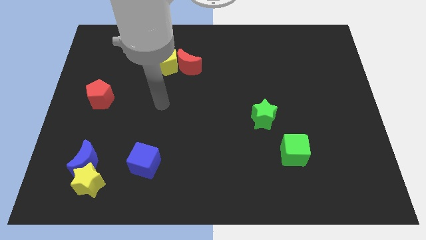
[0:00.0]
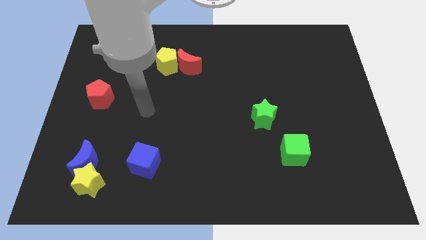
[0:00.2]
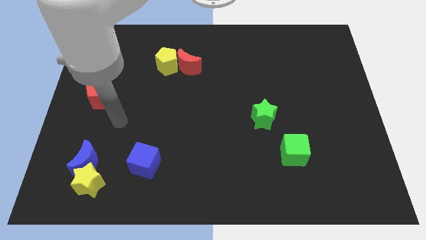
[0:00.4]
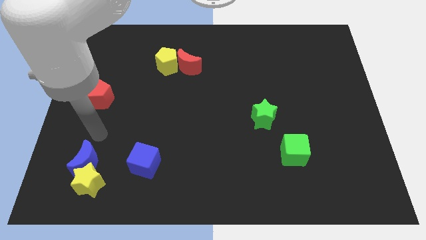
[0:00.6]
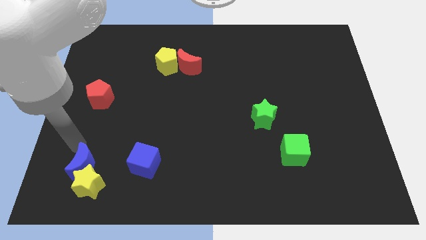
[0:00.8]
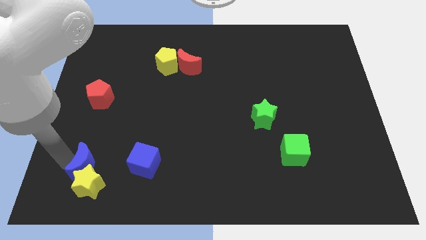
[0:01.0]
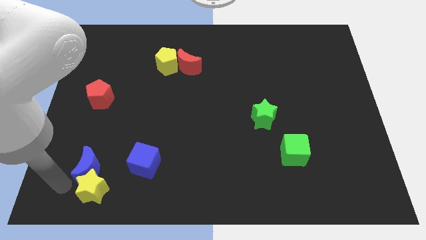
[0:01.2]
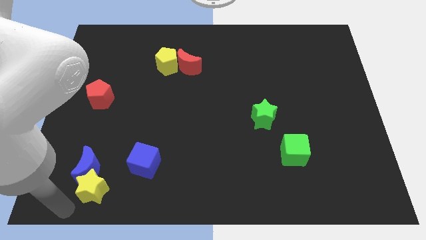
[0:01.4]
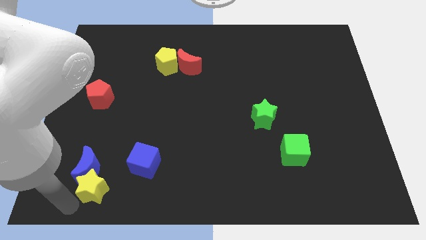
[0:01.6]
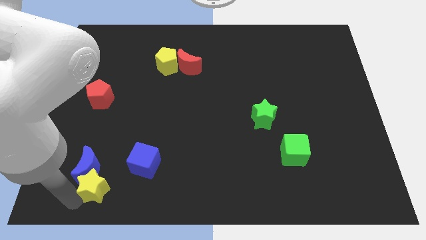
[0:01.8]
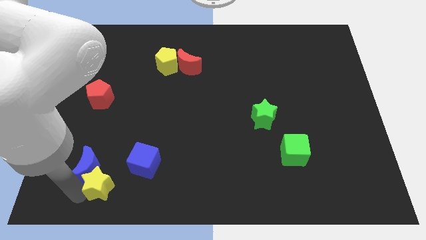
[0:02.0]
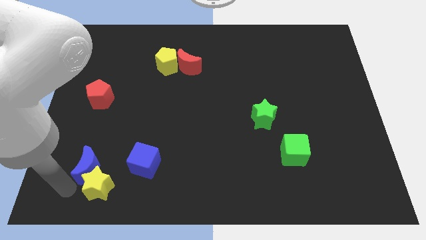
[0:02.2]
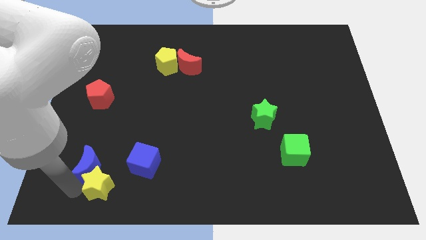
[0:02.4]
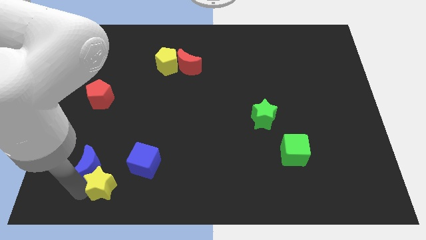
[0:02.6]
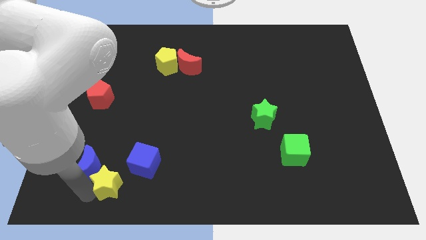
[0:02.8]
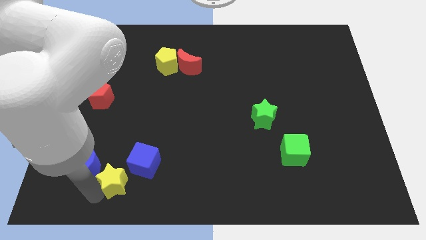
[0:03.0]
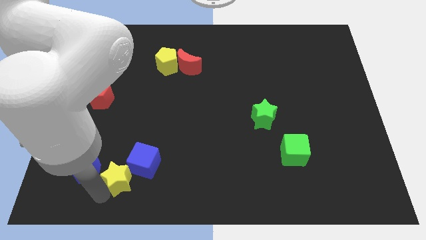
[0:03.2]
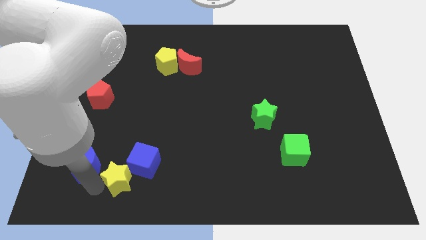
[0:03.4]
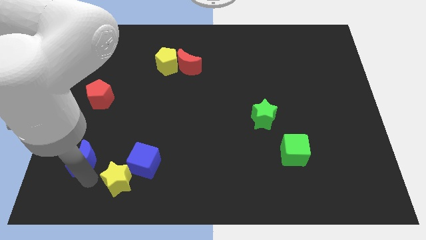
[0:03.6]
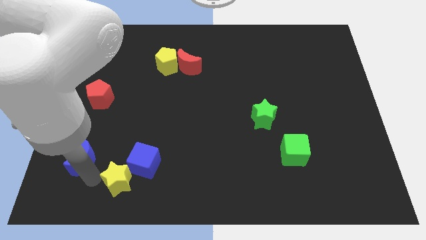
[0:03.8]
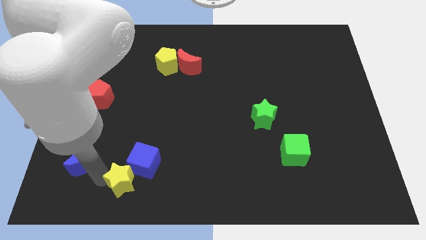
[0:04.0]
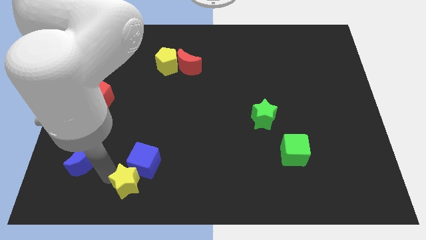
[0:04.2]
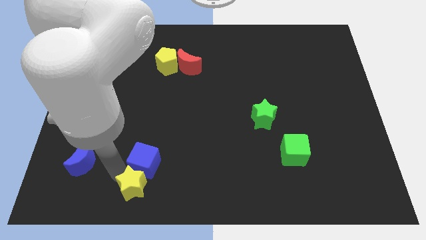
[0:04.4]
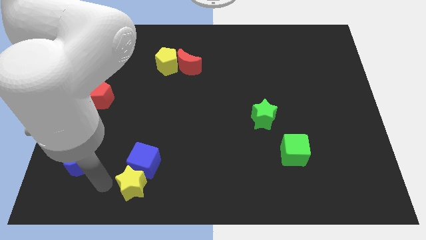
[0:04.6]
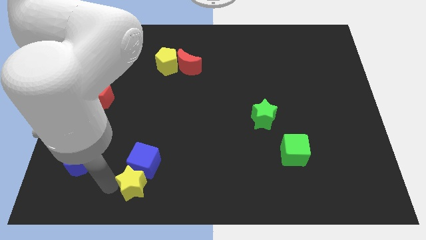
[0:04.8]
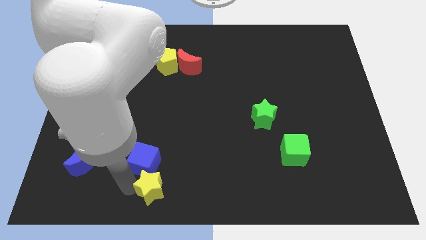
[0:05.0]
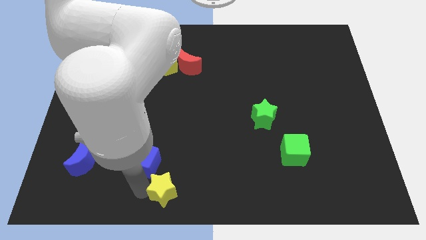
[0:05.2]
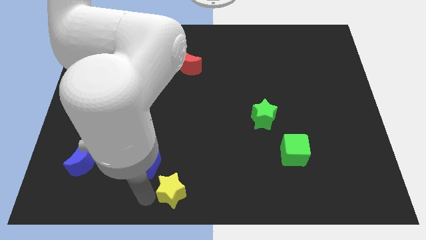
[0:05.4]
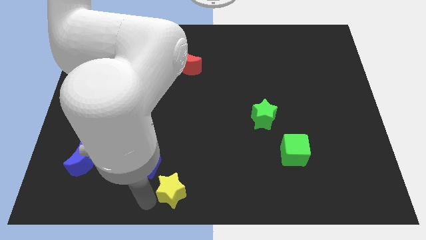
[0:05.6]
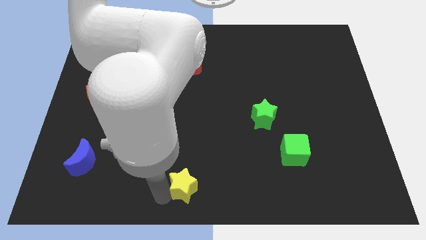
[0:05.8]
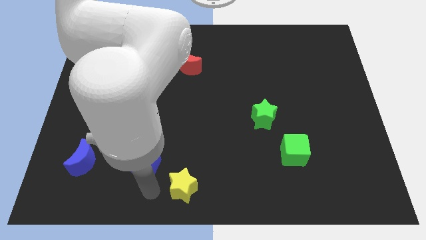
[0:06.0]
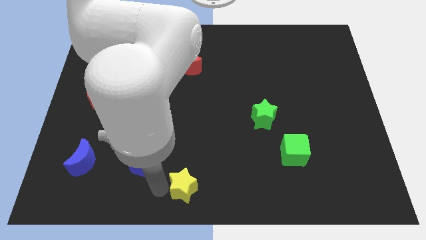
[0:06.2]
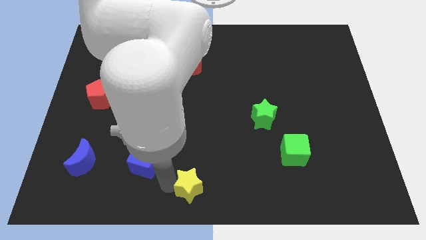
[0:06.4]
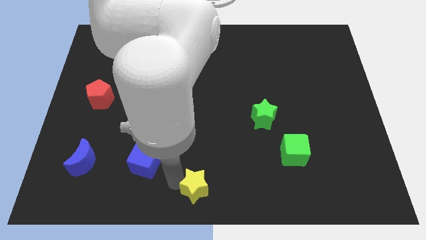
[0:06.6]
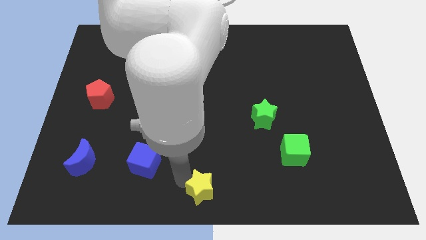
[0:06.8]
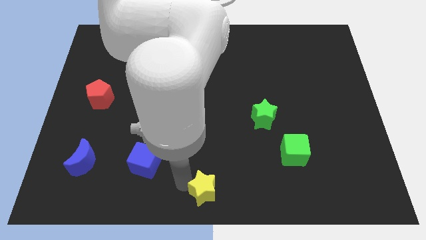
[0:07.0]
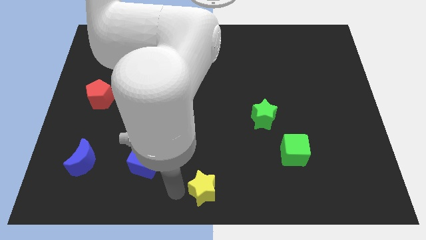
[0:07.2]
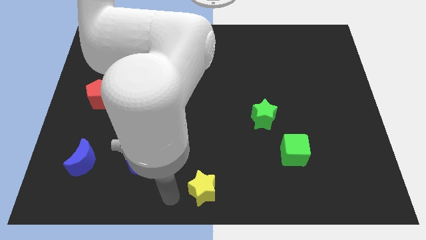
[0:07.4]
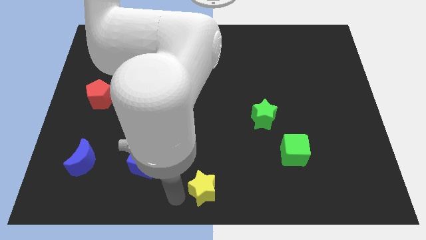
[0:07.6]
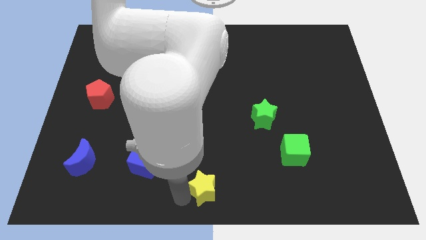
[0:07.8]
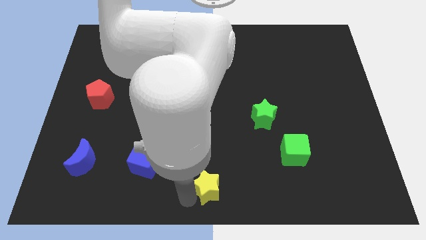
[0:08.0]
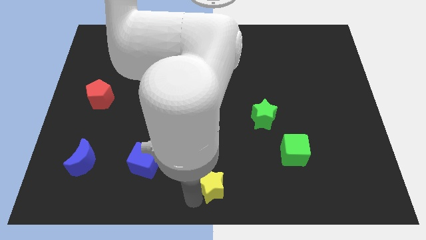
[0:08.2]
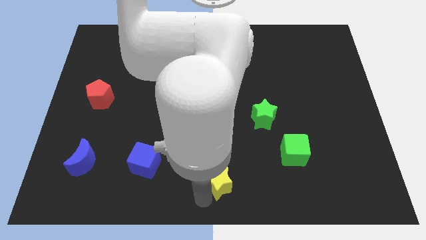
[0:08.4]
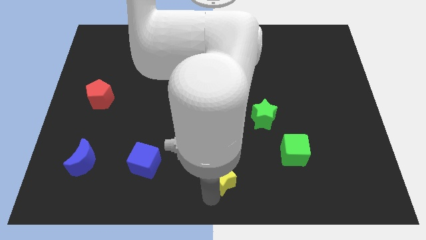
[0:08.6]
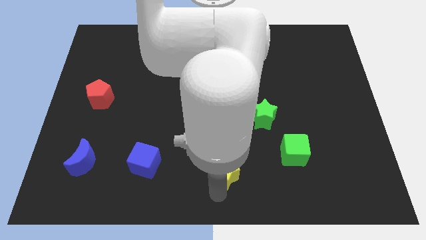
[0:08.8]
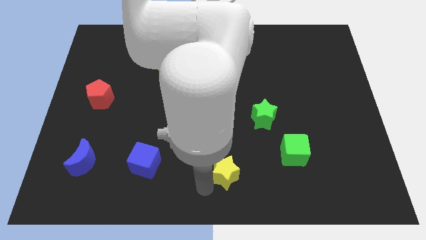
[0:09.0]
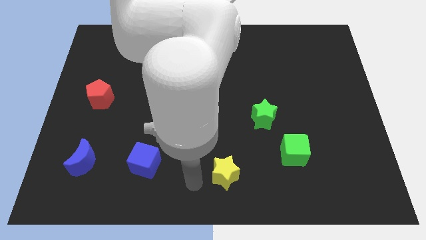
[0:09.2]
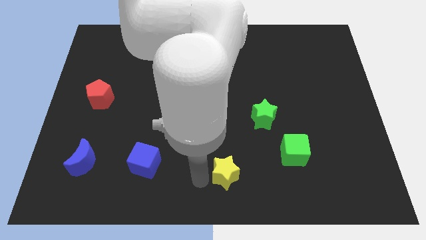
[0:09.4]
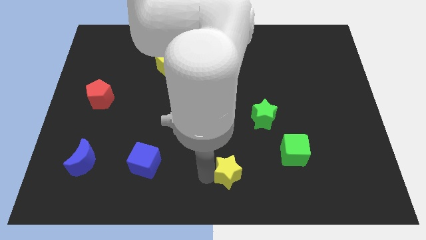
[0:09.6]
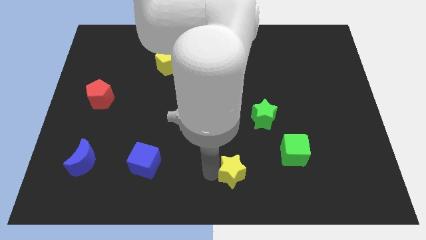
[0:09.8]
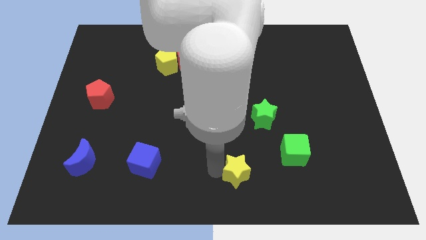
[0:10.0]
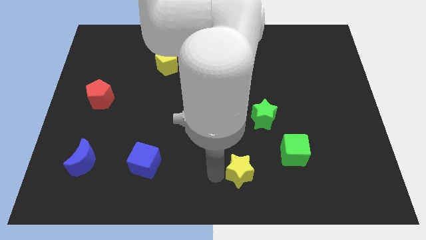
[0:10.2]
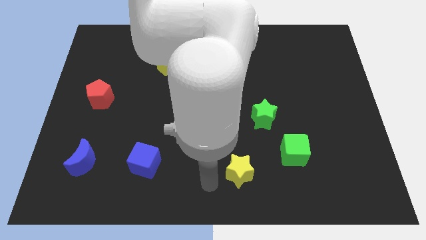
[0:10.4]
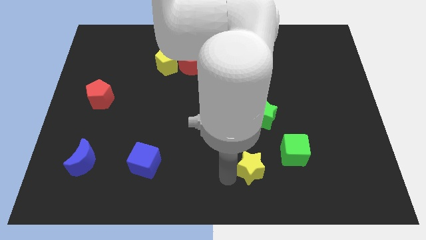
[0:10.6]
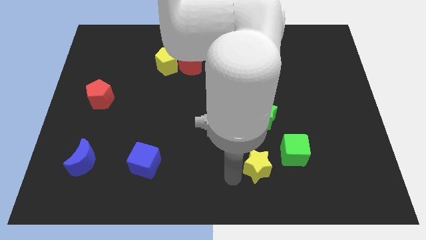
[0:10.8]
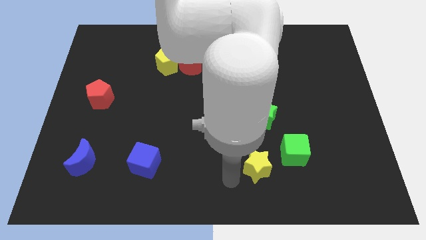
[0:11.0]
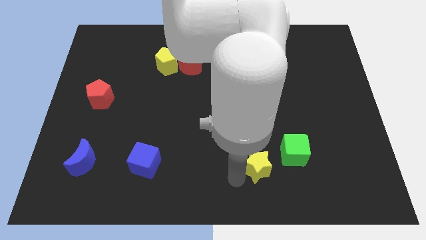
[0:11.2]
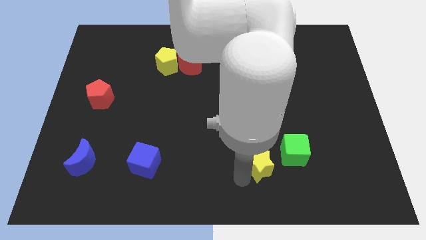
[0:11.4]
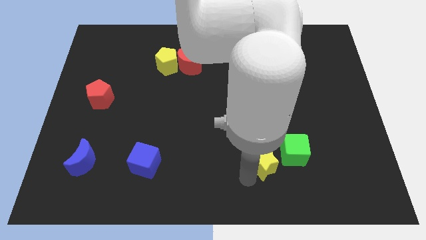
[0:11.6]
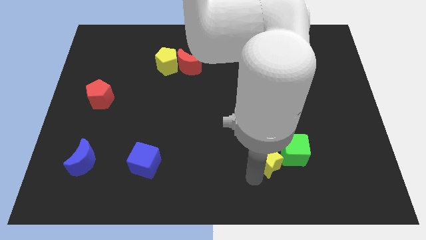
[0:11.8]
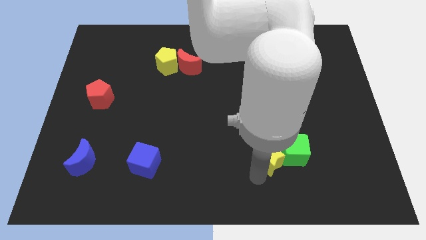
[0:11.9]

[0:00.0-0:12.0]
slide the yellow star to the green cube

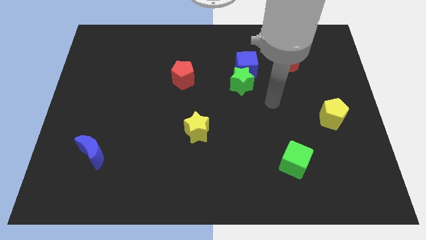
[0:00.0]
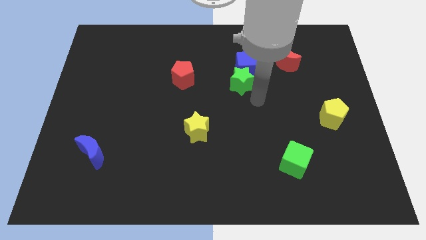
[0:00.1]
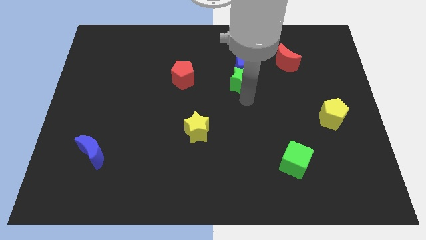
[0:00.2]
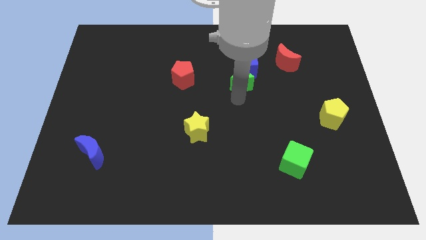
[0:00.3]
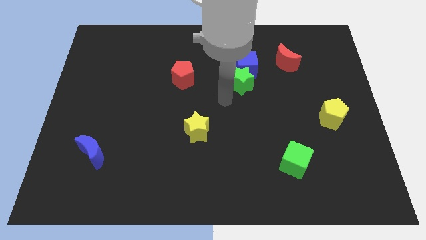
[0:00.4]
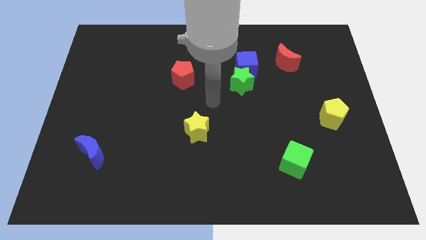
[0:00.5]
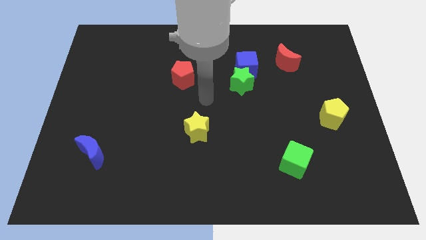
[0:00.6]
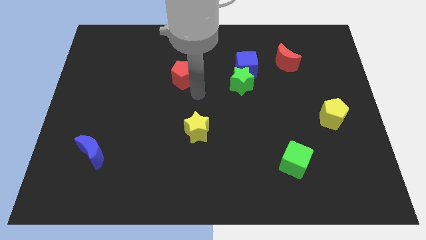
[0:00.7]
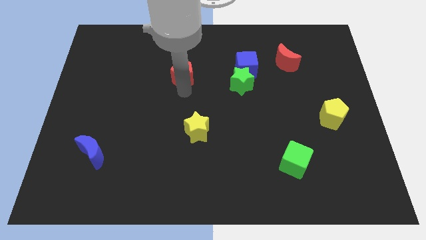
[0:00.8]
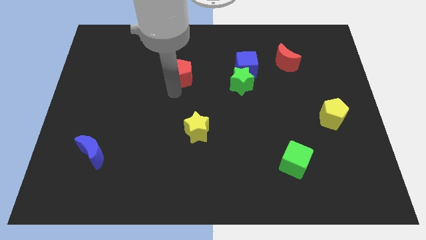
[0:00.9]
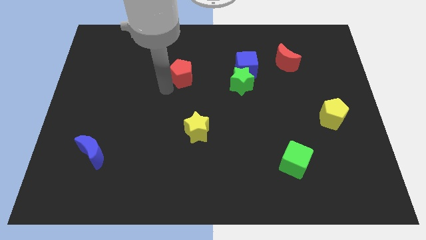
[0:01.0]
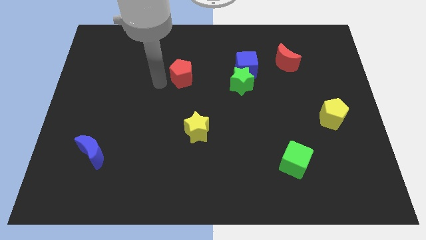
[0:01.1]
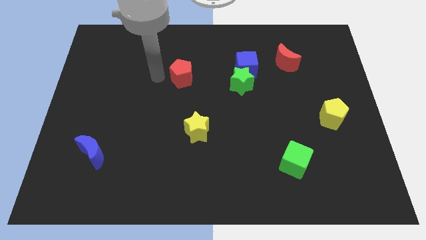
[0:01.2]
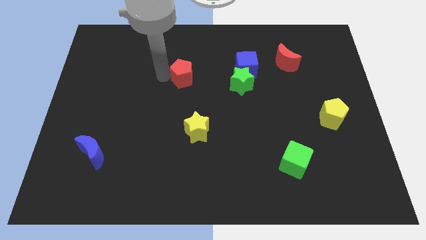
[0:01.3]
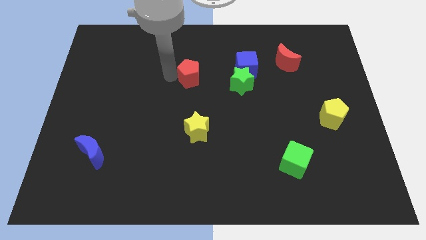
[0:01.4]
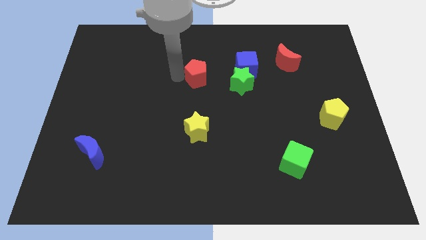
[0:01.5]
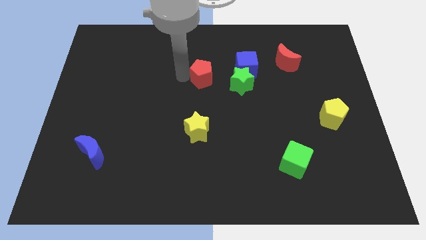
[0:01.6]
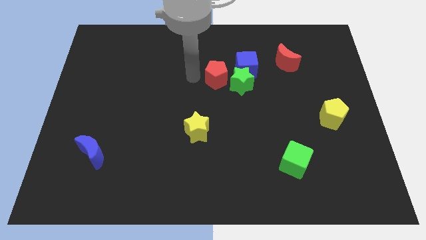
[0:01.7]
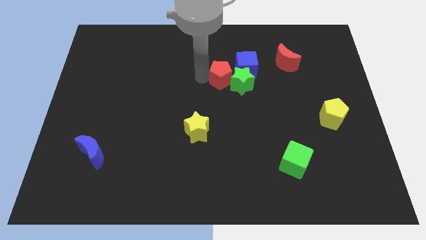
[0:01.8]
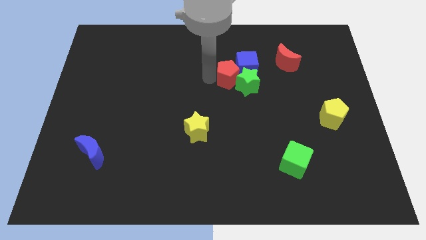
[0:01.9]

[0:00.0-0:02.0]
slide the red pentagon to the blue cube
